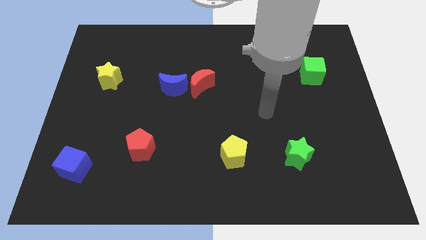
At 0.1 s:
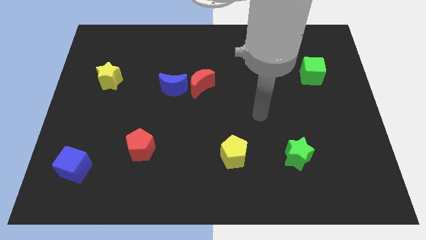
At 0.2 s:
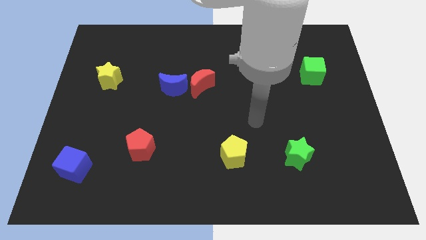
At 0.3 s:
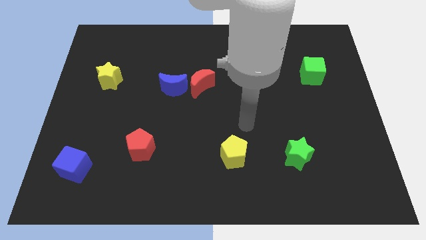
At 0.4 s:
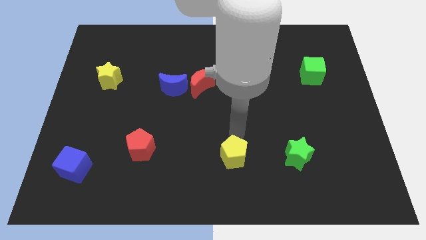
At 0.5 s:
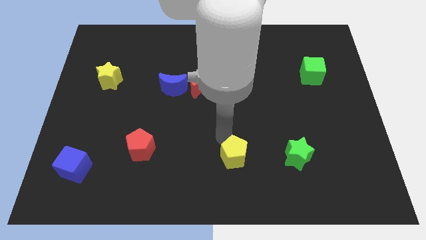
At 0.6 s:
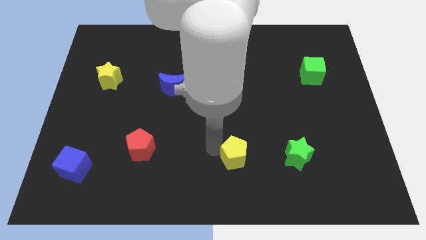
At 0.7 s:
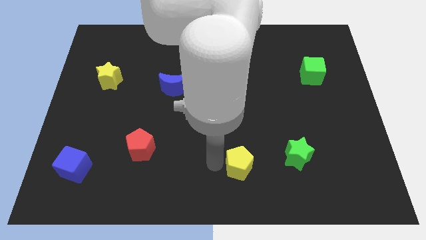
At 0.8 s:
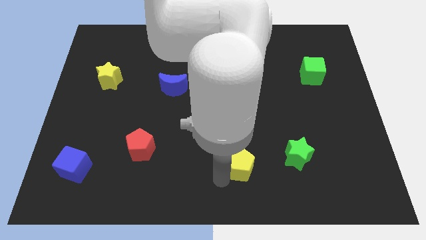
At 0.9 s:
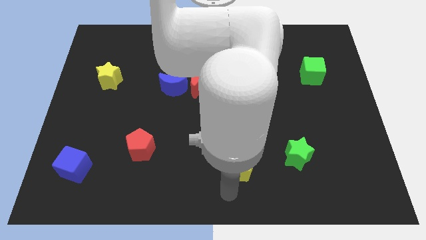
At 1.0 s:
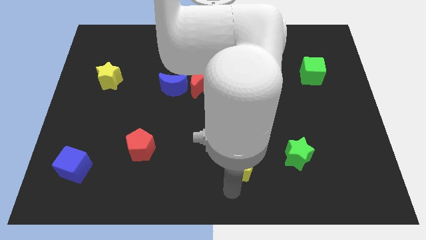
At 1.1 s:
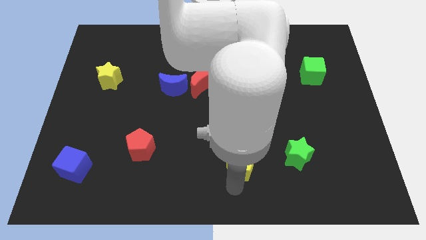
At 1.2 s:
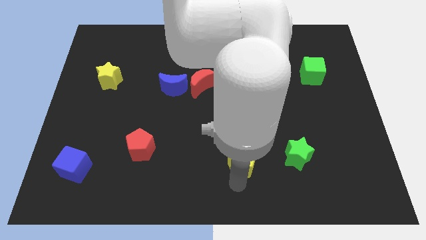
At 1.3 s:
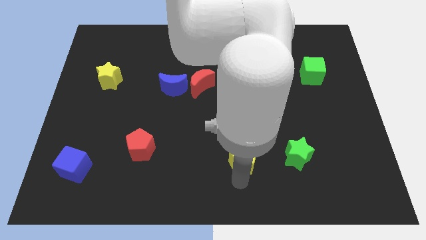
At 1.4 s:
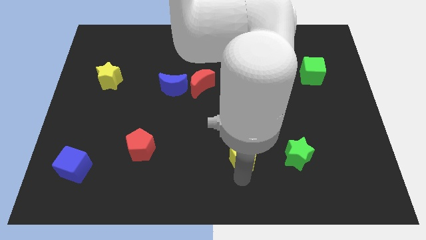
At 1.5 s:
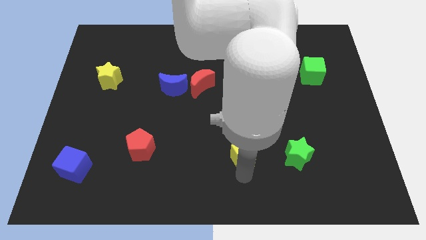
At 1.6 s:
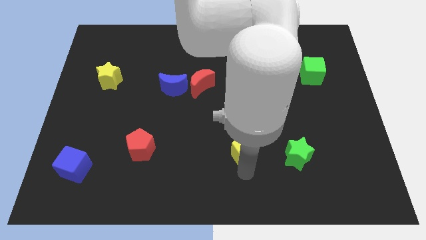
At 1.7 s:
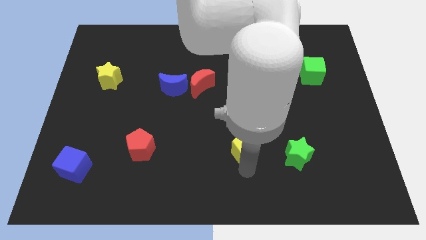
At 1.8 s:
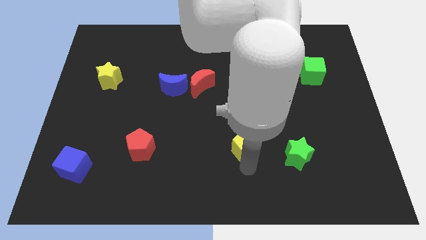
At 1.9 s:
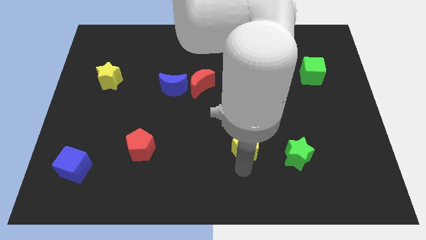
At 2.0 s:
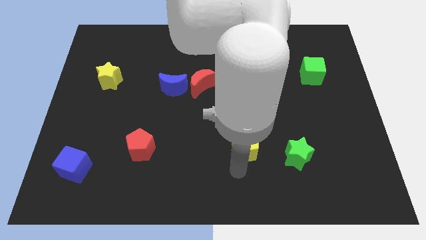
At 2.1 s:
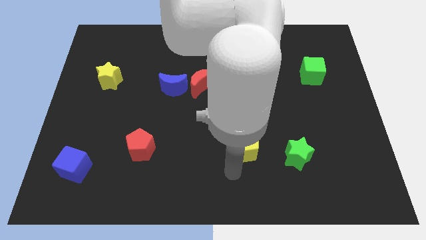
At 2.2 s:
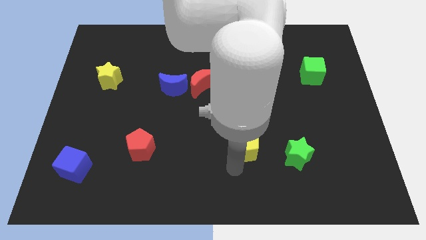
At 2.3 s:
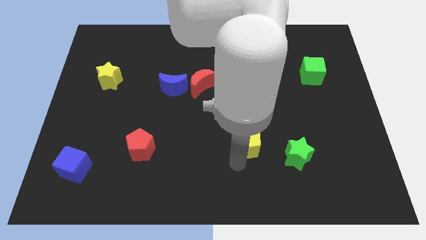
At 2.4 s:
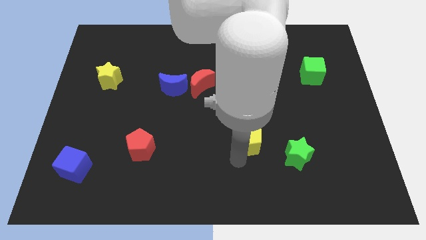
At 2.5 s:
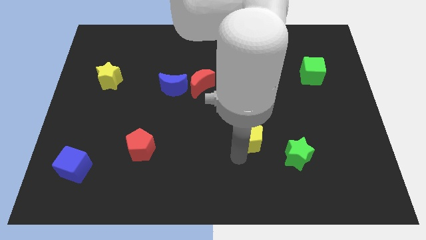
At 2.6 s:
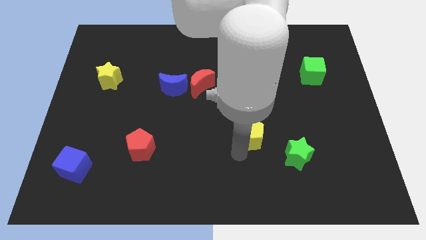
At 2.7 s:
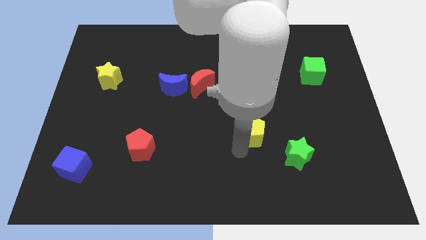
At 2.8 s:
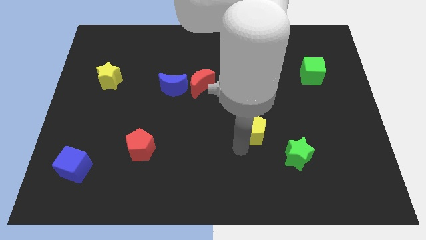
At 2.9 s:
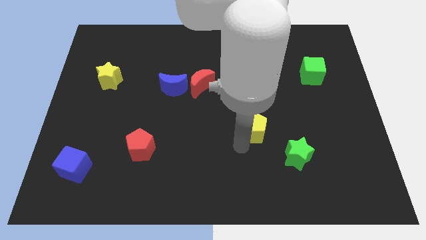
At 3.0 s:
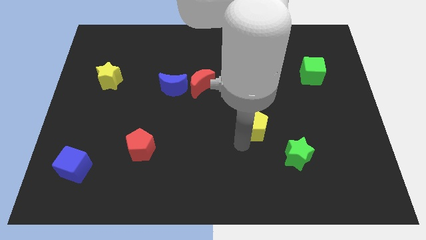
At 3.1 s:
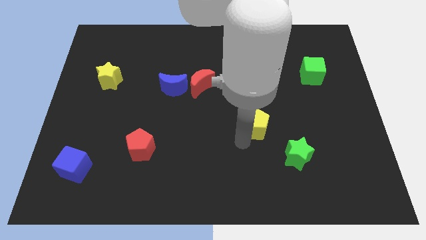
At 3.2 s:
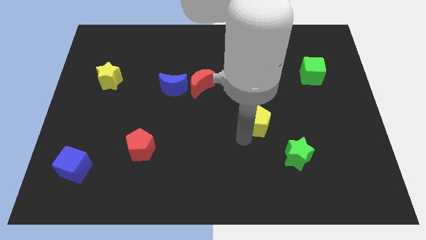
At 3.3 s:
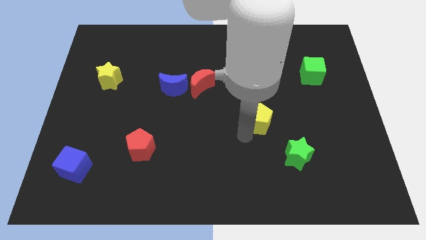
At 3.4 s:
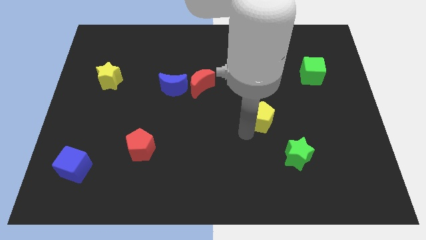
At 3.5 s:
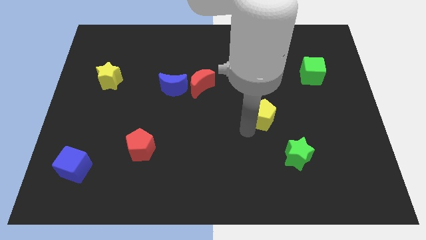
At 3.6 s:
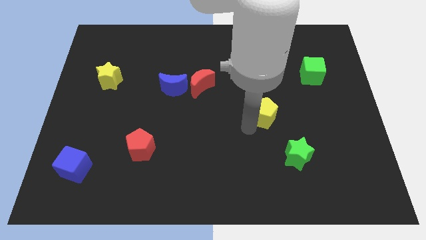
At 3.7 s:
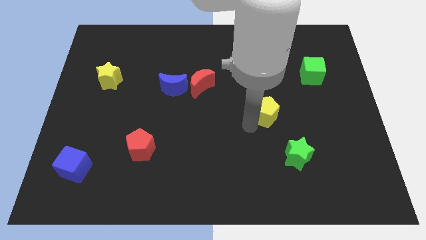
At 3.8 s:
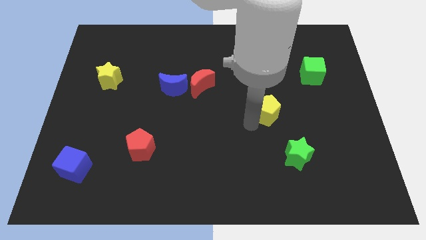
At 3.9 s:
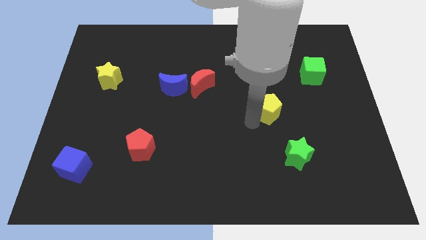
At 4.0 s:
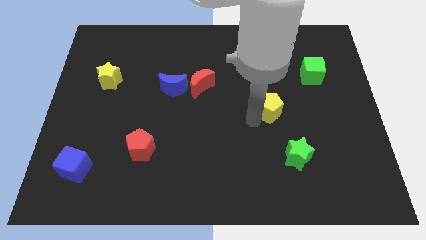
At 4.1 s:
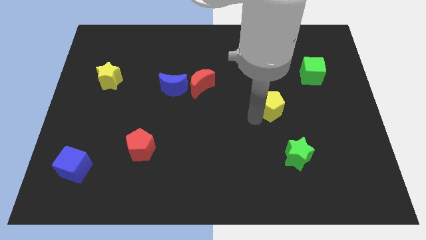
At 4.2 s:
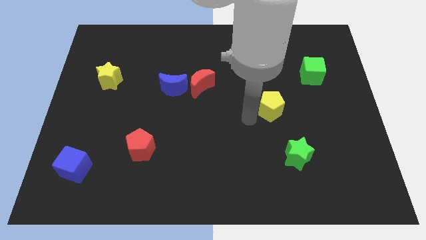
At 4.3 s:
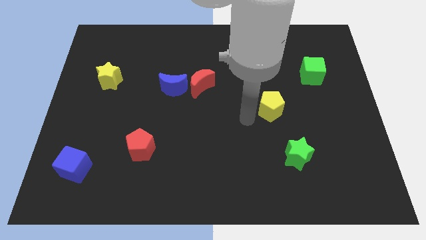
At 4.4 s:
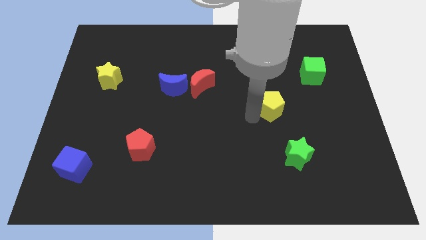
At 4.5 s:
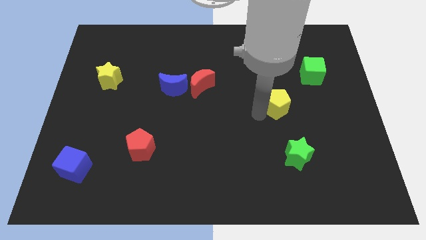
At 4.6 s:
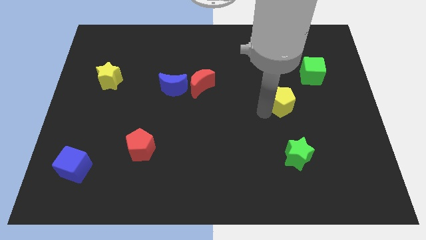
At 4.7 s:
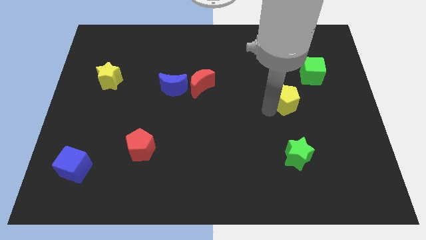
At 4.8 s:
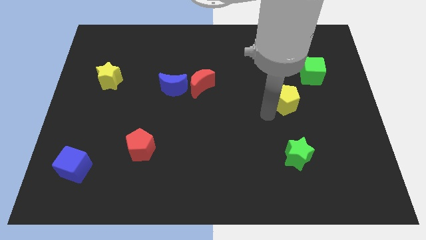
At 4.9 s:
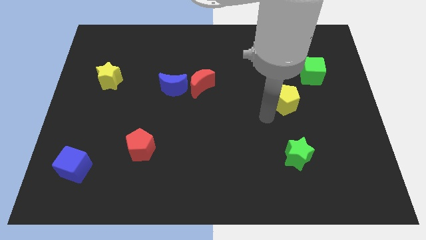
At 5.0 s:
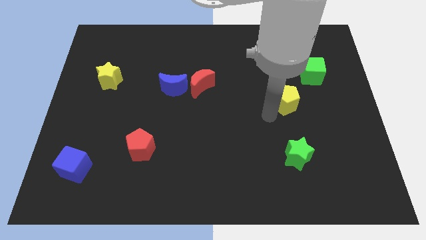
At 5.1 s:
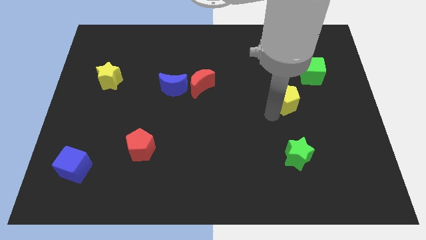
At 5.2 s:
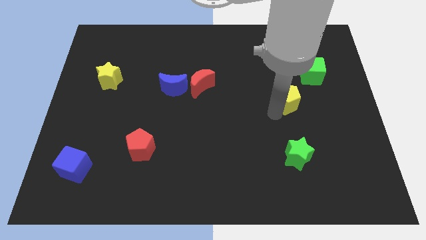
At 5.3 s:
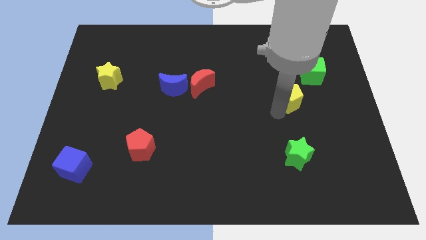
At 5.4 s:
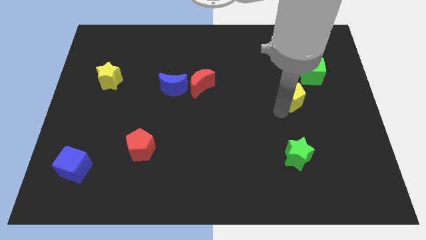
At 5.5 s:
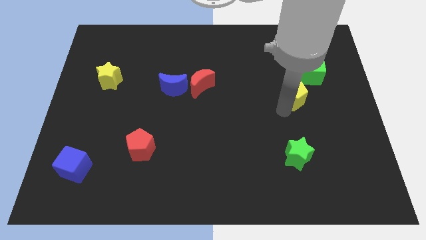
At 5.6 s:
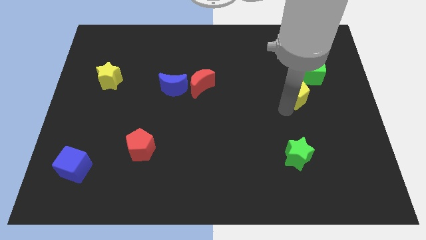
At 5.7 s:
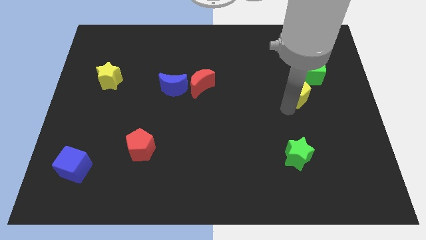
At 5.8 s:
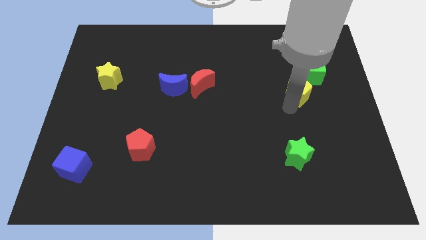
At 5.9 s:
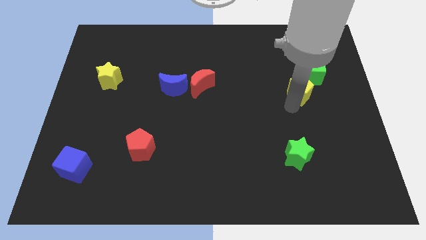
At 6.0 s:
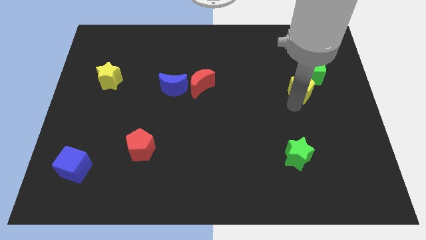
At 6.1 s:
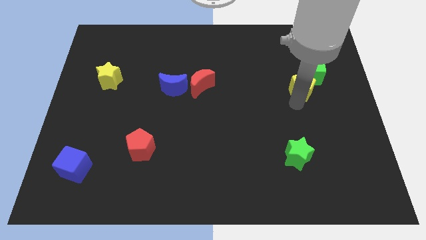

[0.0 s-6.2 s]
move the yellow pentagon next to the green cube

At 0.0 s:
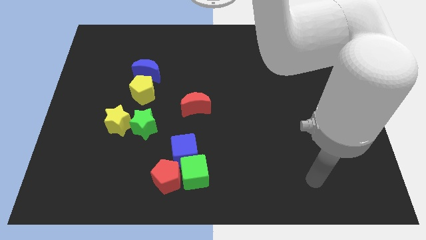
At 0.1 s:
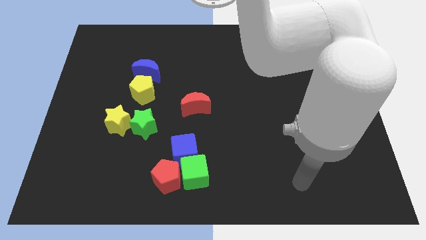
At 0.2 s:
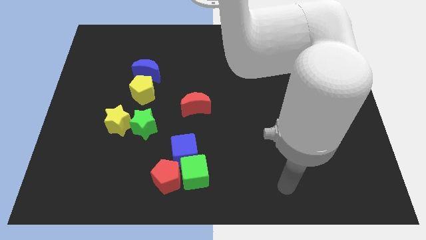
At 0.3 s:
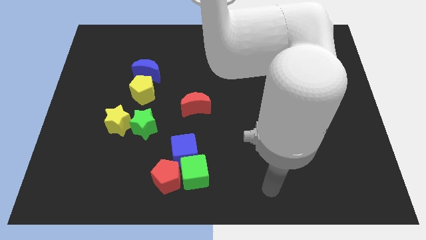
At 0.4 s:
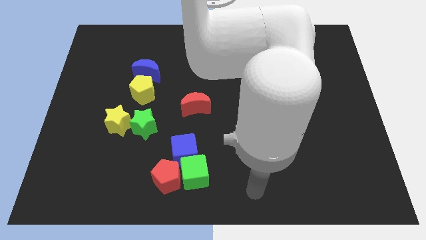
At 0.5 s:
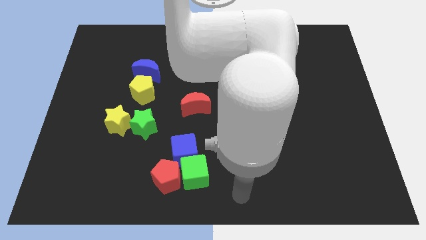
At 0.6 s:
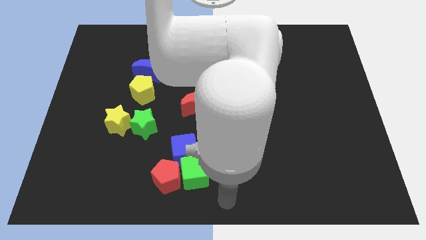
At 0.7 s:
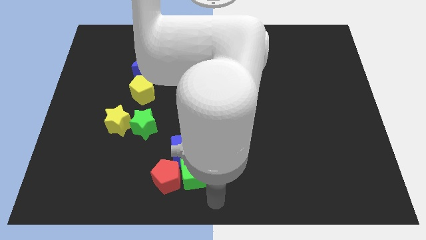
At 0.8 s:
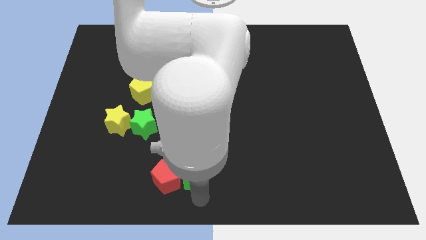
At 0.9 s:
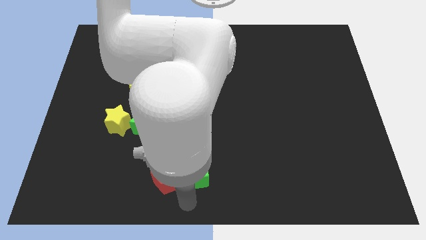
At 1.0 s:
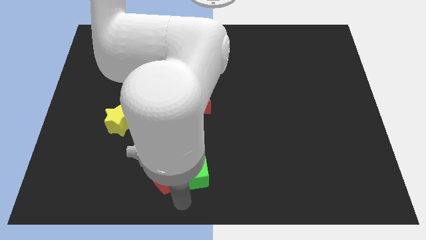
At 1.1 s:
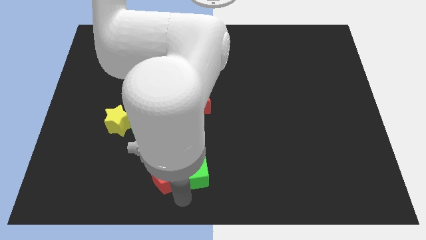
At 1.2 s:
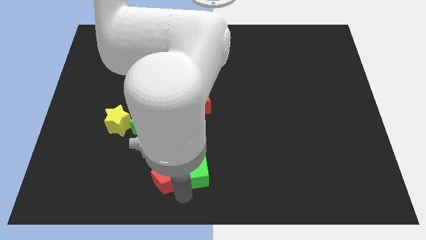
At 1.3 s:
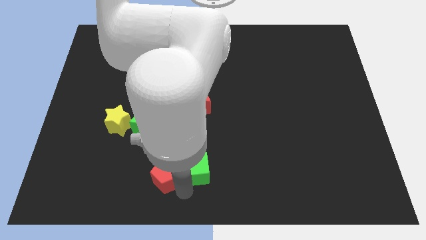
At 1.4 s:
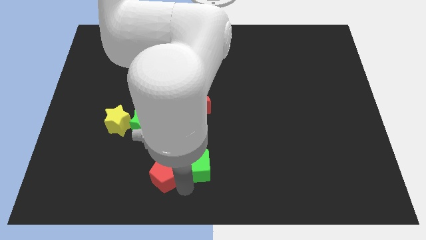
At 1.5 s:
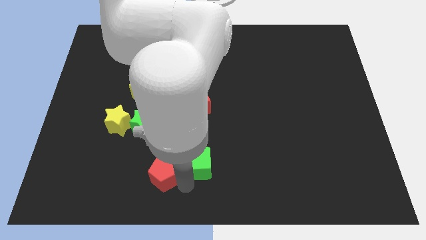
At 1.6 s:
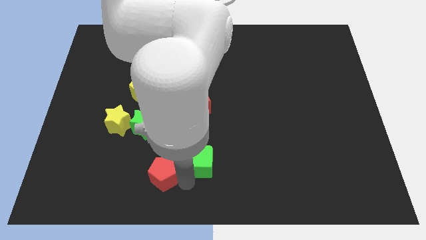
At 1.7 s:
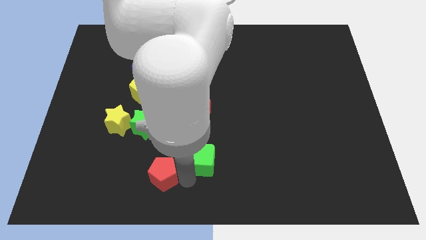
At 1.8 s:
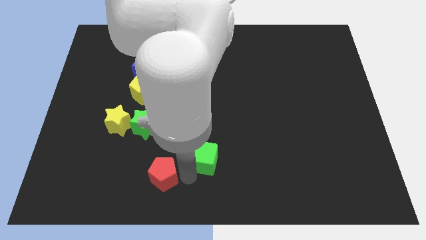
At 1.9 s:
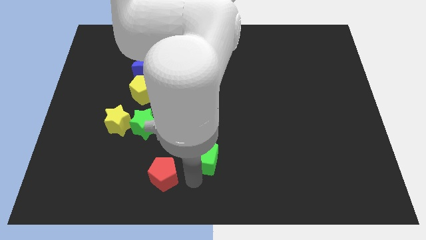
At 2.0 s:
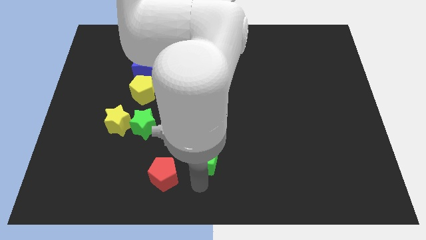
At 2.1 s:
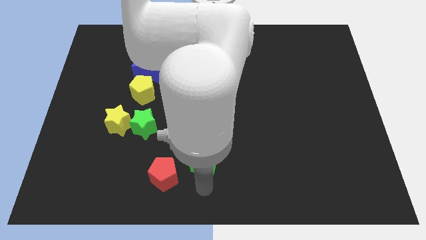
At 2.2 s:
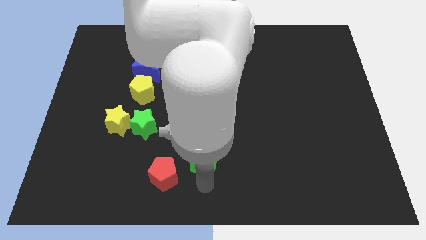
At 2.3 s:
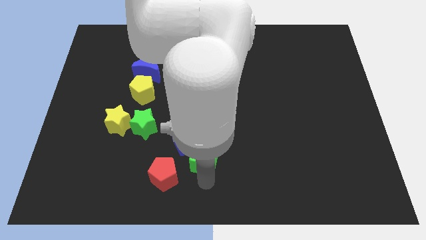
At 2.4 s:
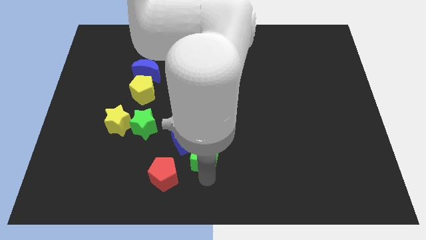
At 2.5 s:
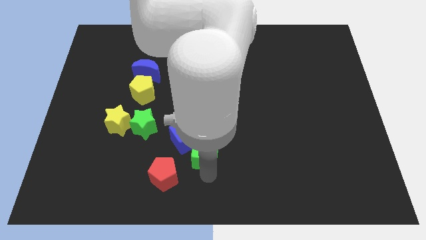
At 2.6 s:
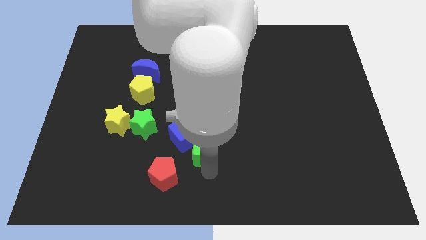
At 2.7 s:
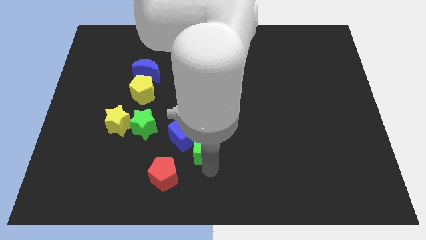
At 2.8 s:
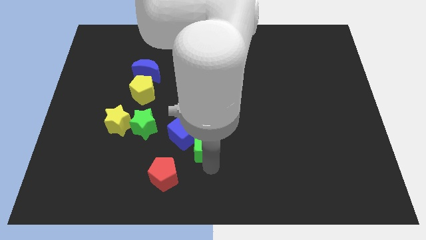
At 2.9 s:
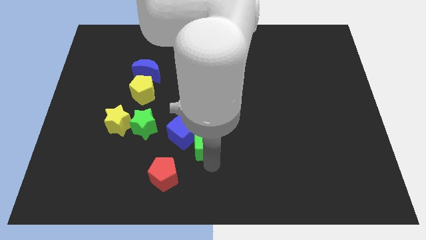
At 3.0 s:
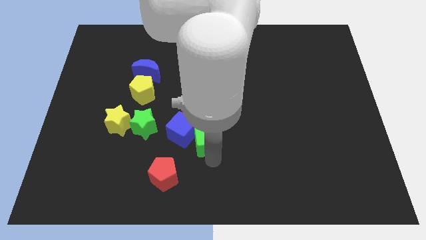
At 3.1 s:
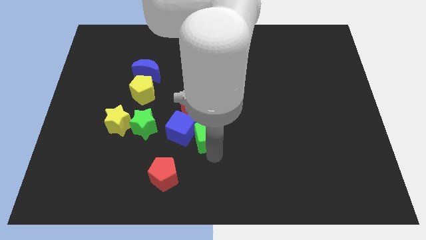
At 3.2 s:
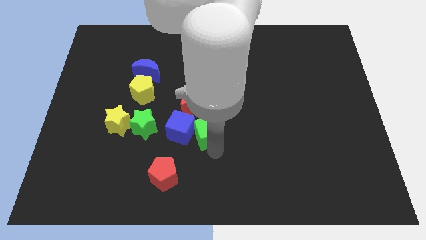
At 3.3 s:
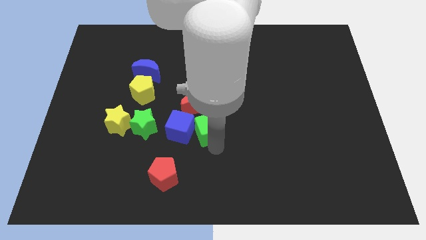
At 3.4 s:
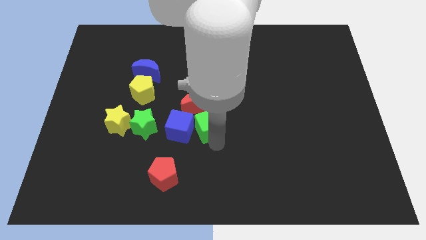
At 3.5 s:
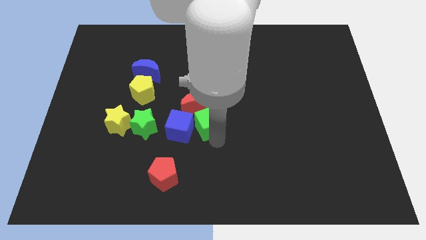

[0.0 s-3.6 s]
slide the green cube to the red moon
